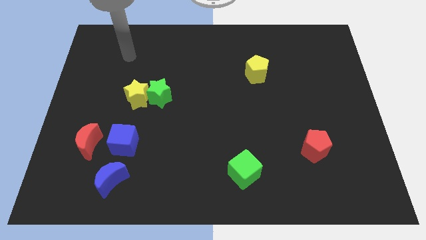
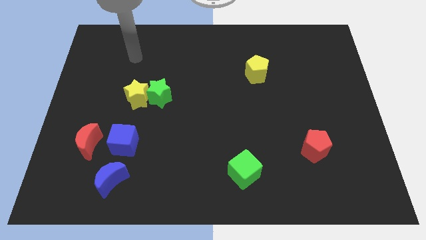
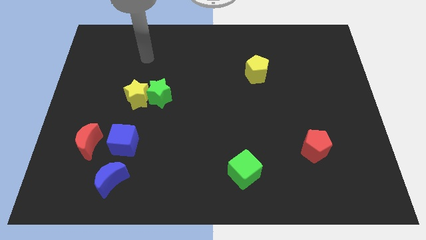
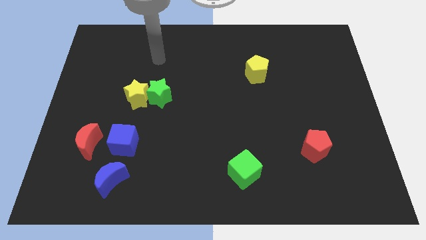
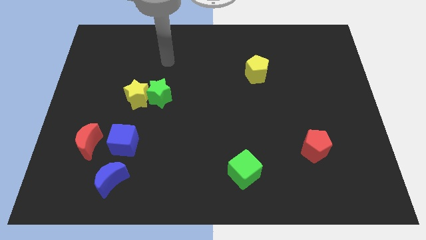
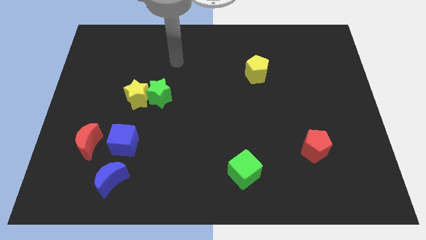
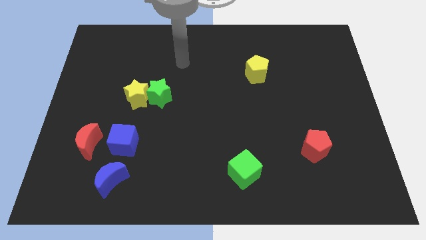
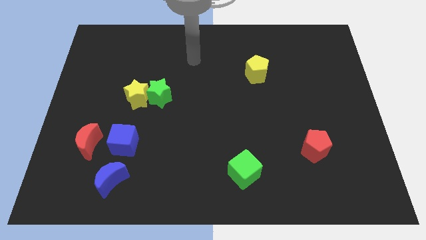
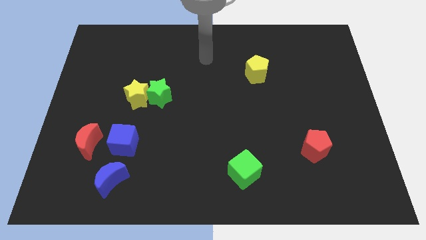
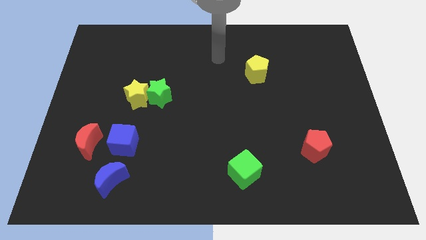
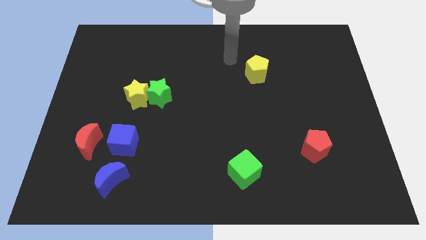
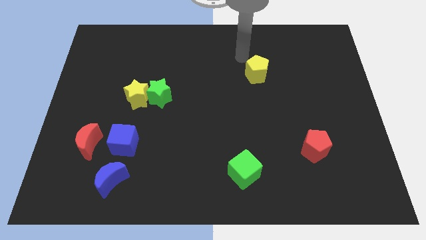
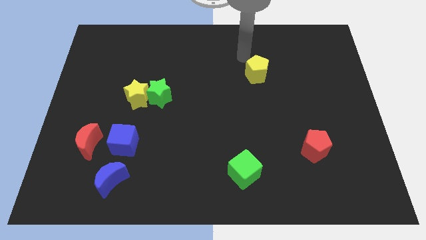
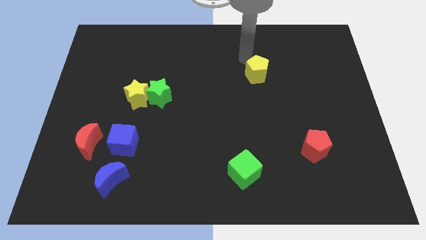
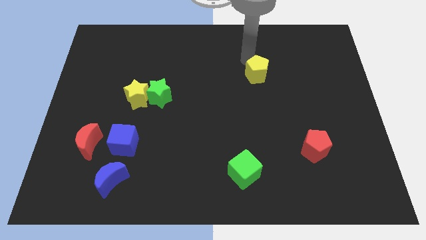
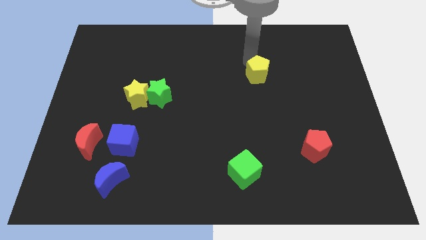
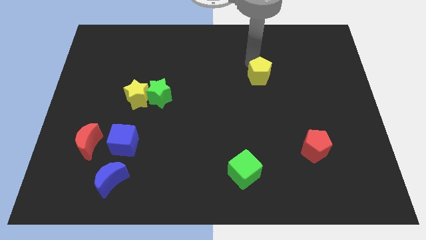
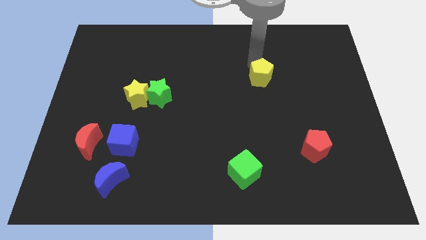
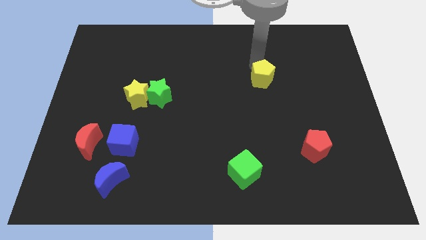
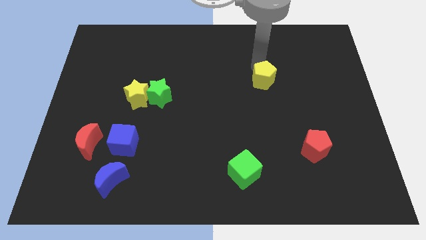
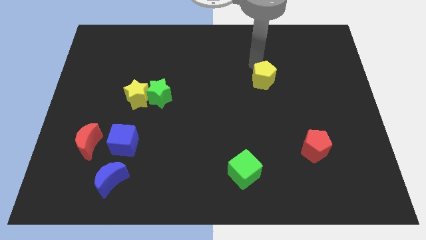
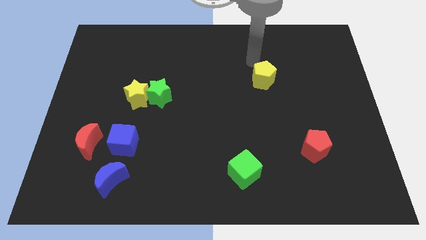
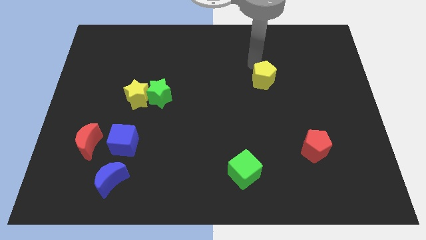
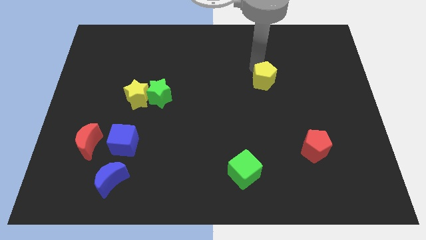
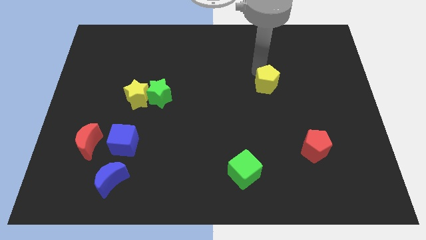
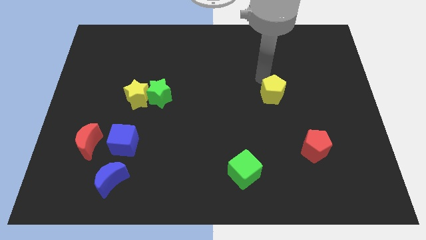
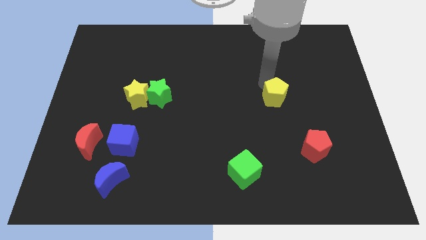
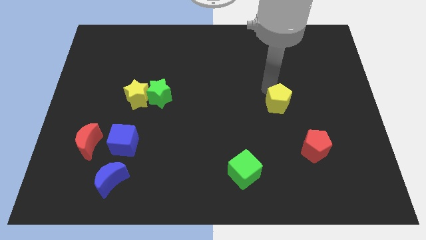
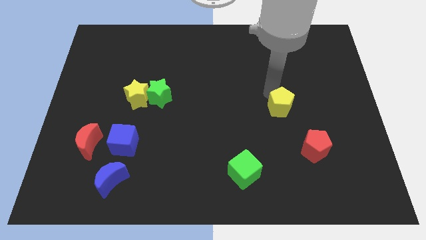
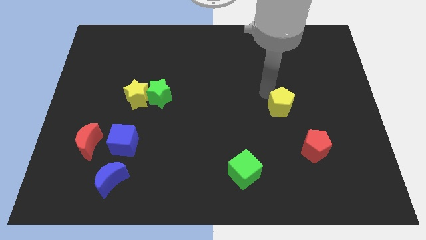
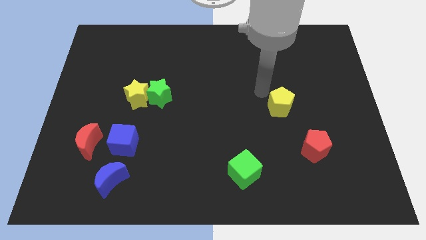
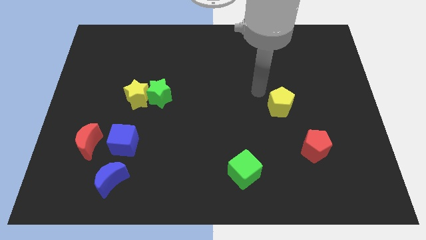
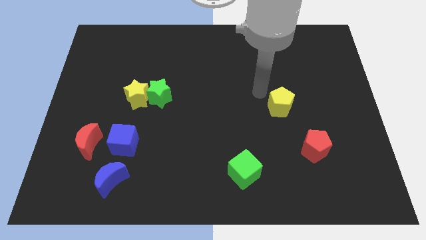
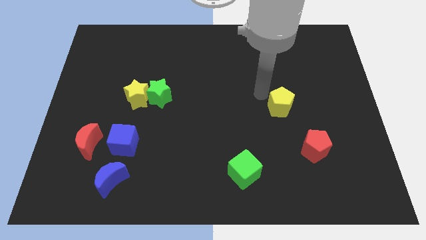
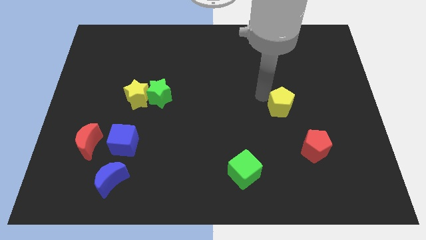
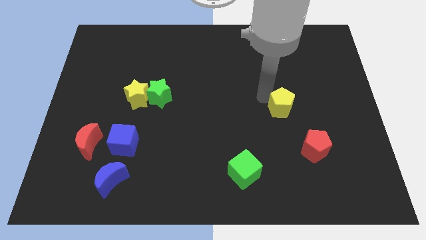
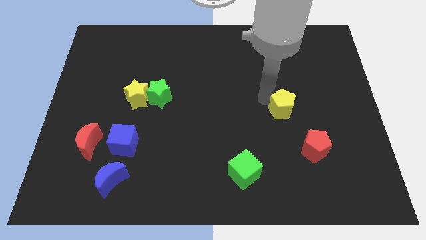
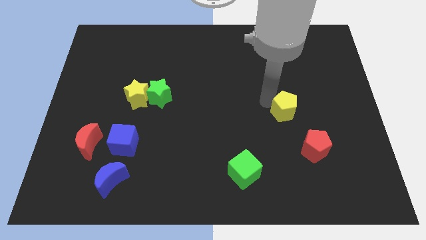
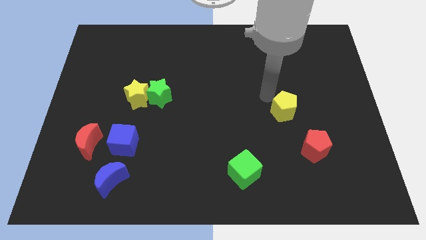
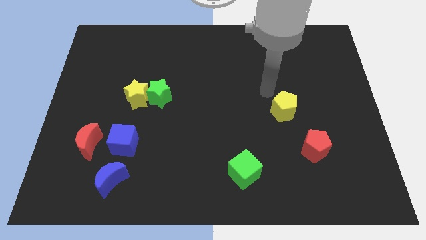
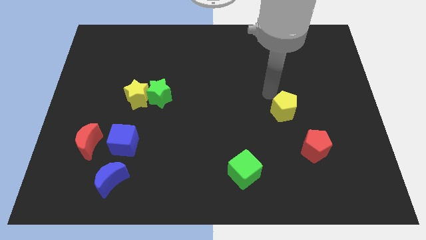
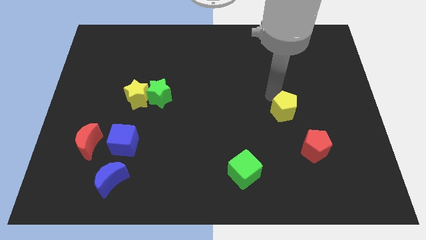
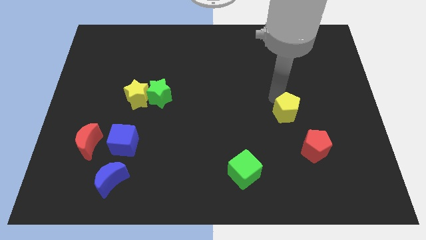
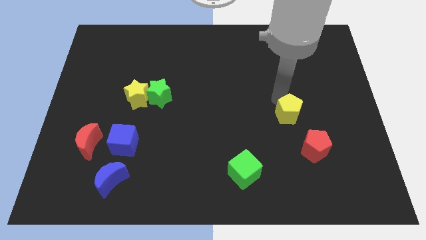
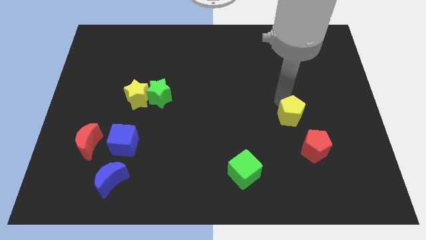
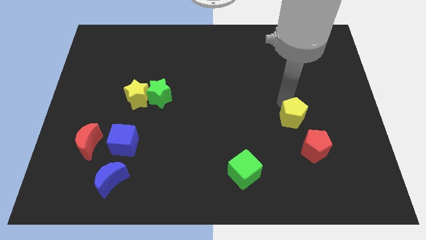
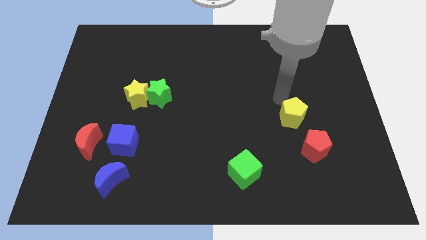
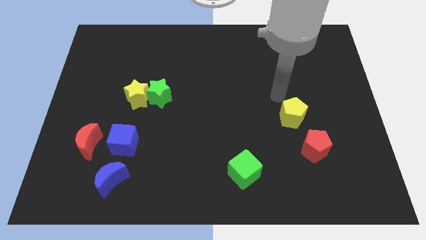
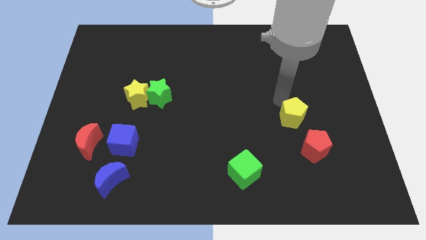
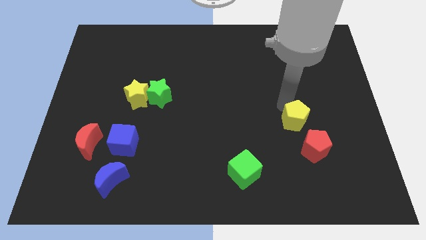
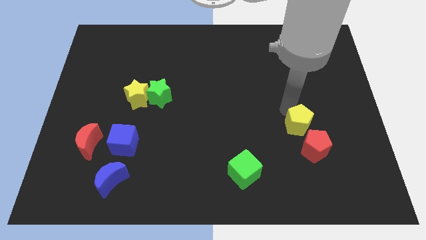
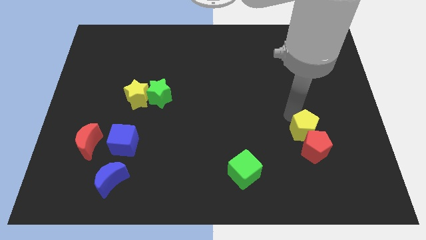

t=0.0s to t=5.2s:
push the yellow pentagon to the red pentagon

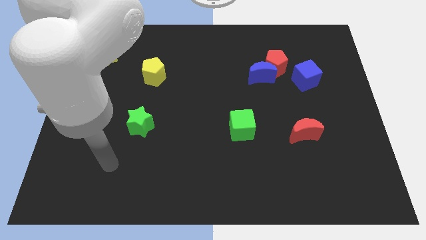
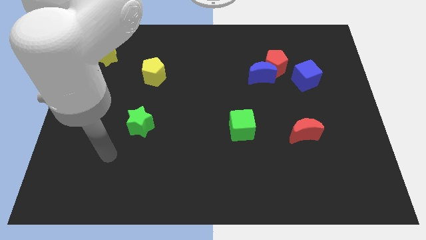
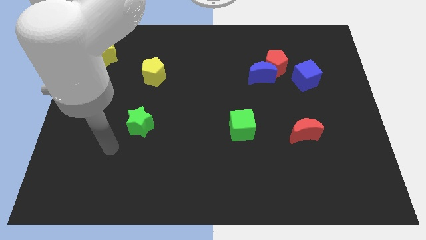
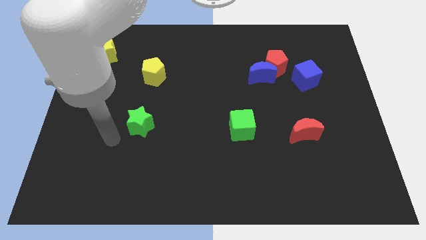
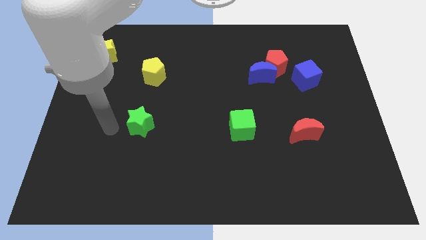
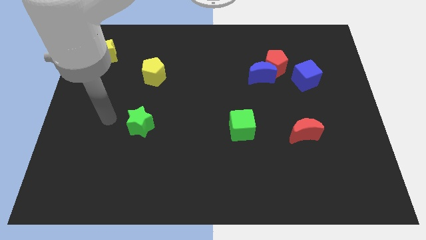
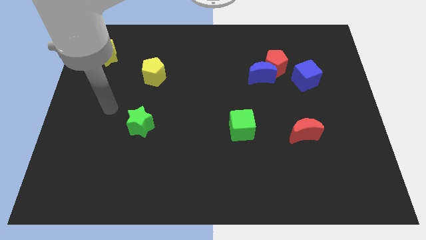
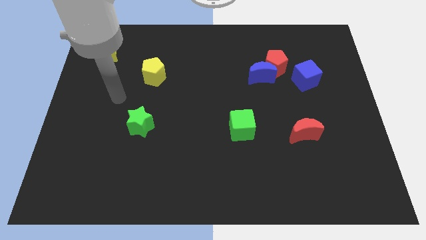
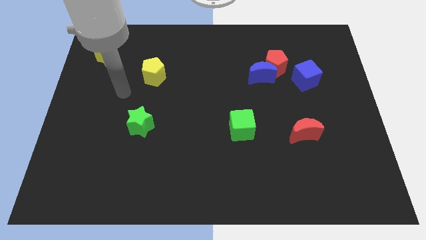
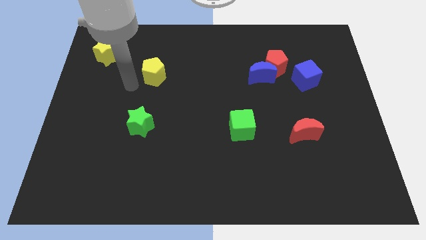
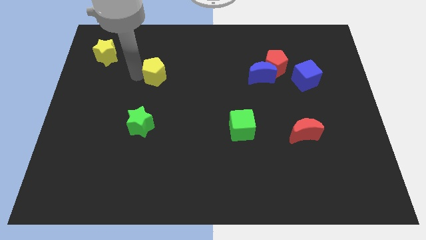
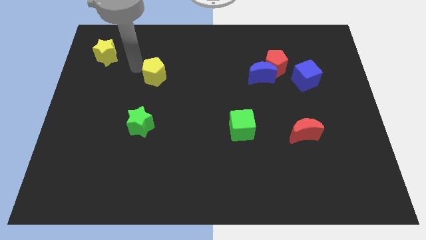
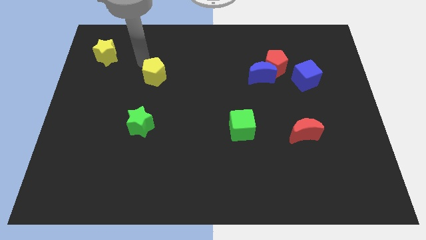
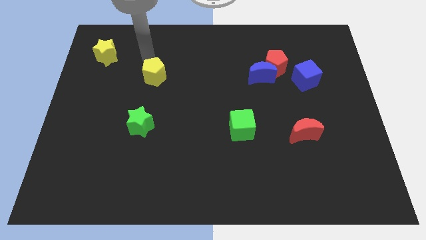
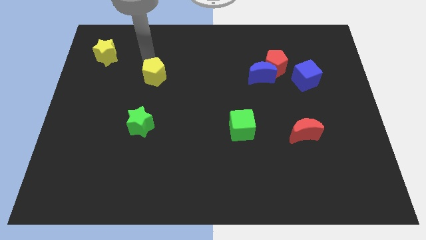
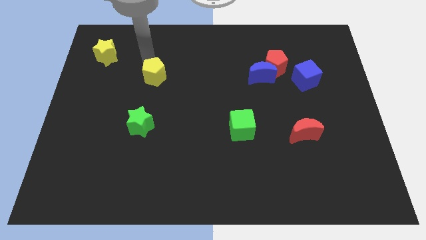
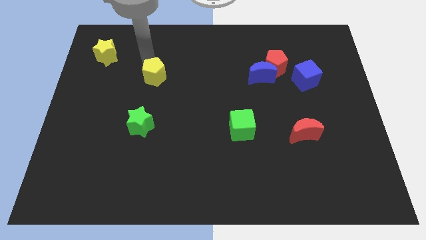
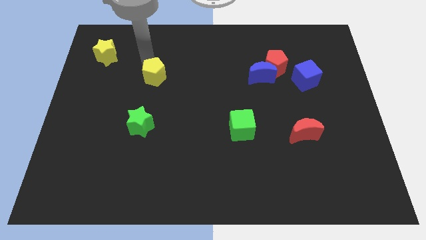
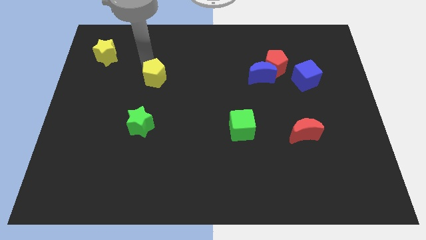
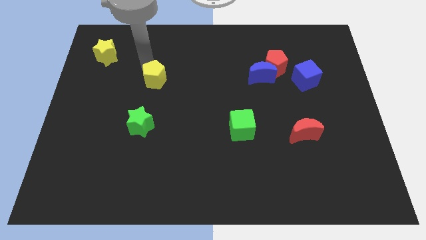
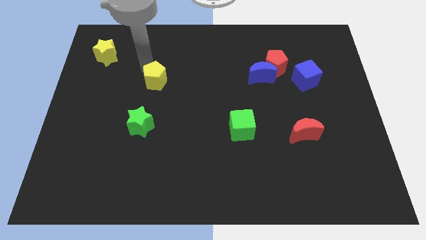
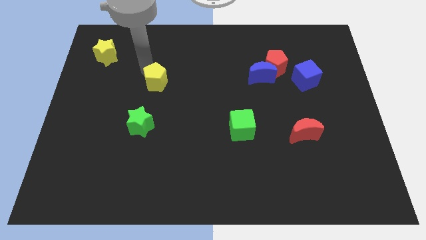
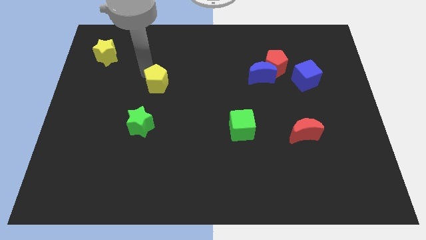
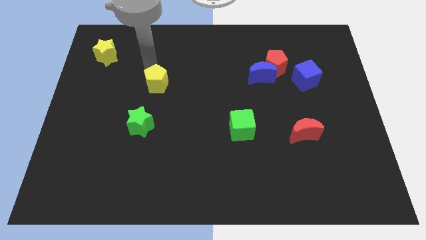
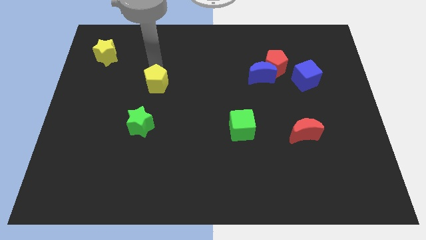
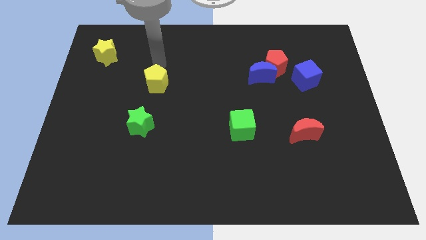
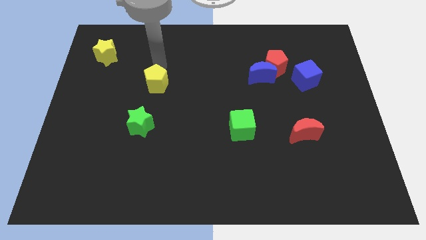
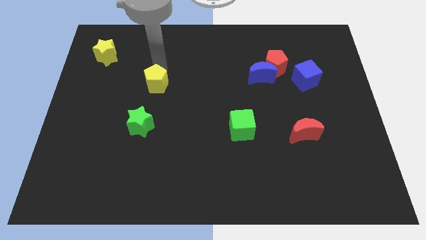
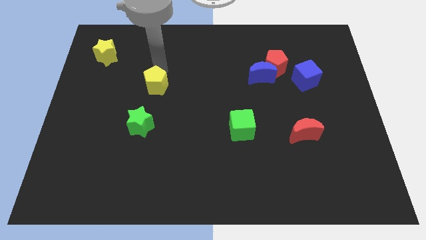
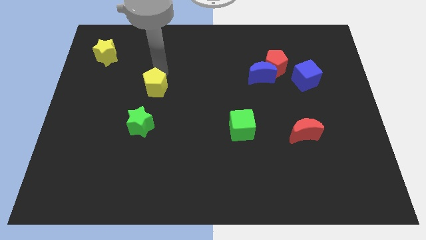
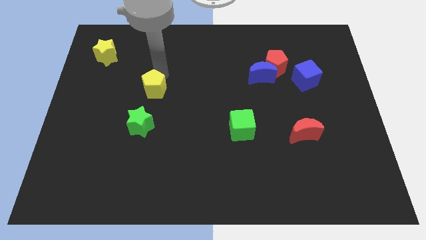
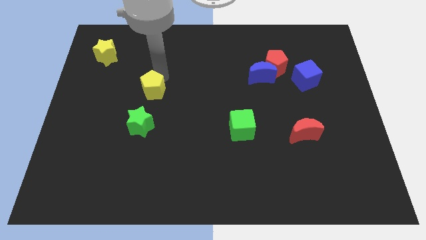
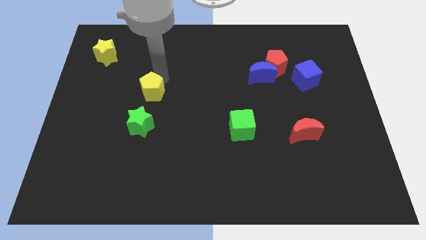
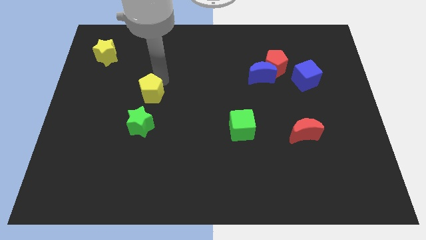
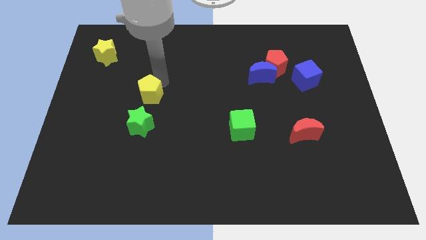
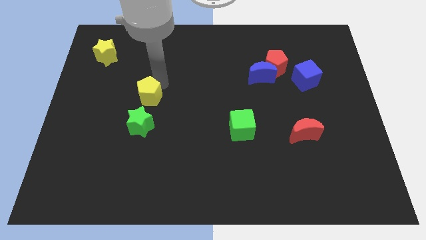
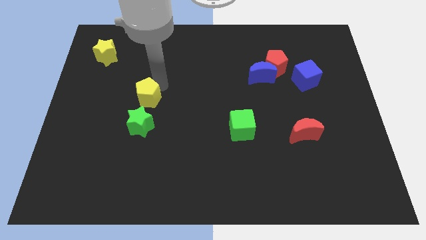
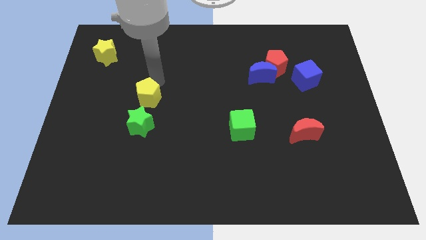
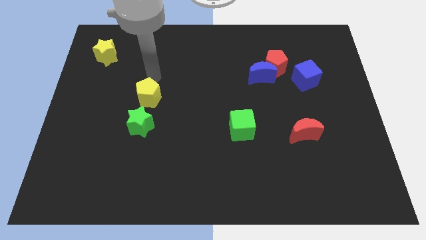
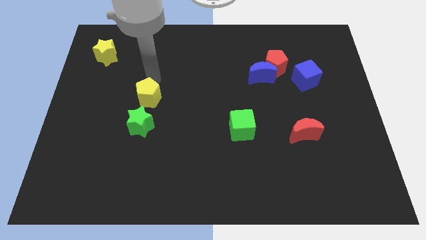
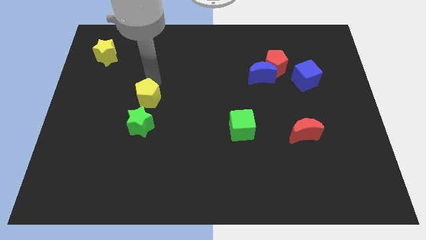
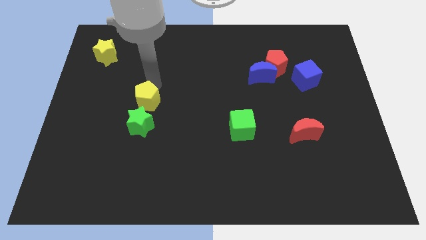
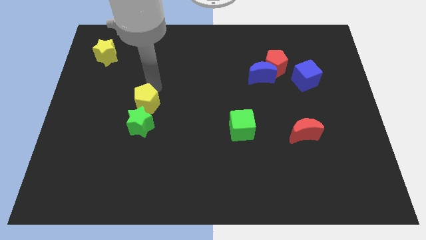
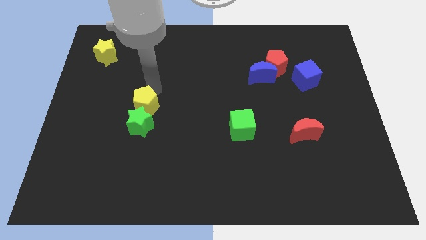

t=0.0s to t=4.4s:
slide the yellow pentagon next to the green star
